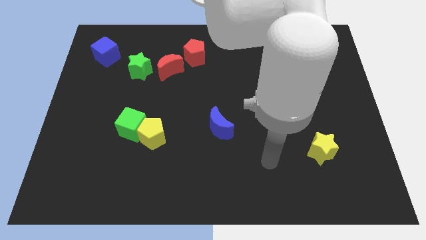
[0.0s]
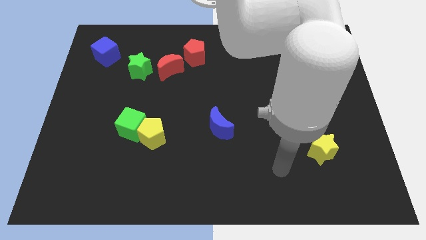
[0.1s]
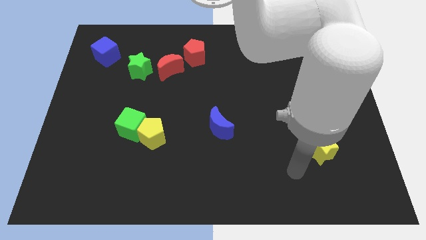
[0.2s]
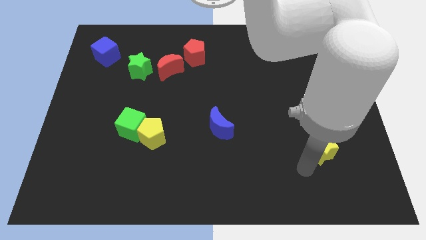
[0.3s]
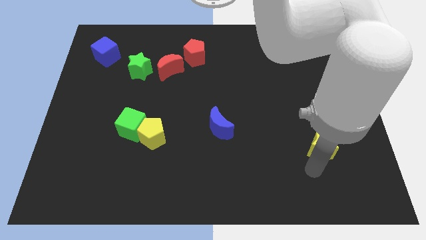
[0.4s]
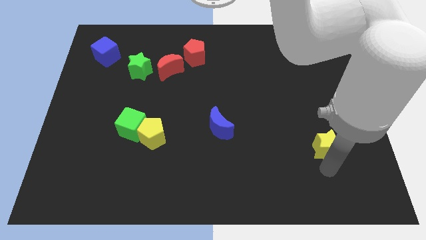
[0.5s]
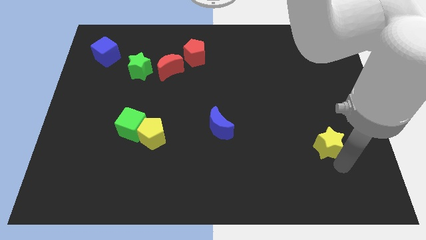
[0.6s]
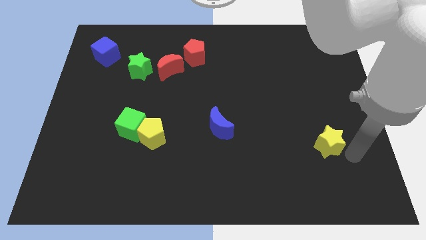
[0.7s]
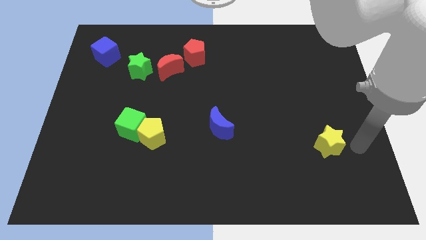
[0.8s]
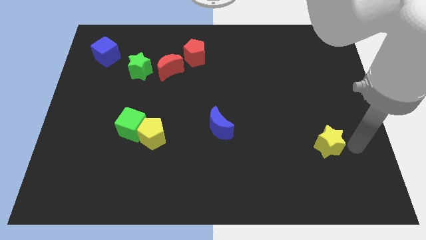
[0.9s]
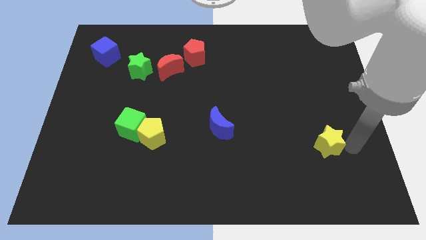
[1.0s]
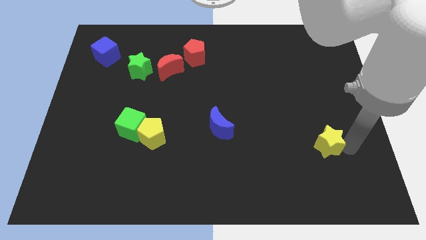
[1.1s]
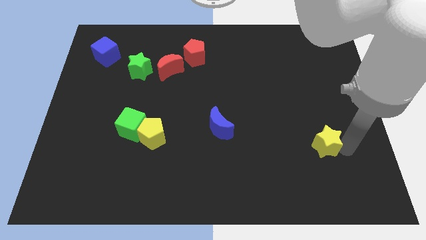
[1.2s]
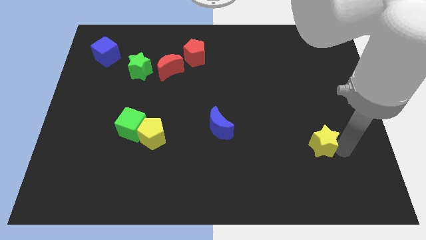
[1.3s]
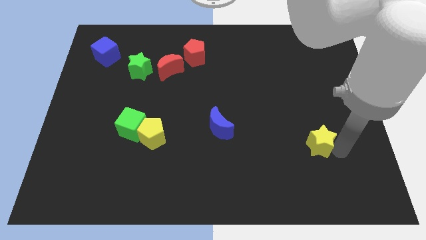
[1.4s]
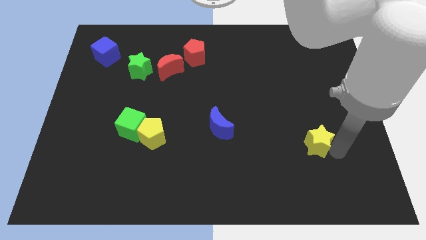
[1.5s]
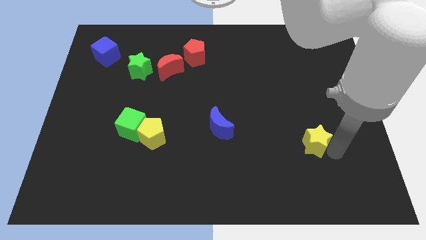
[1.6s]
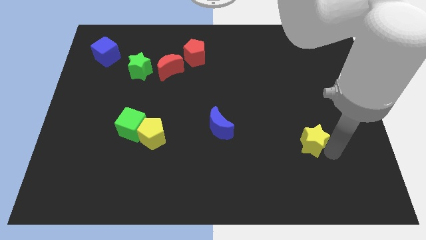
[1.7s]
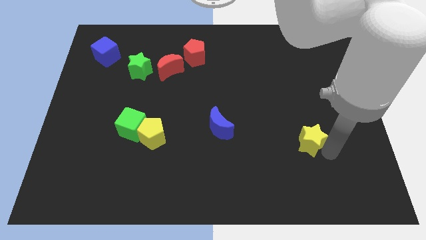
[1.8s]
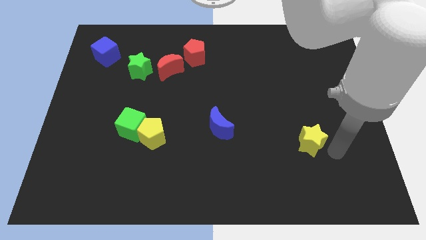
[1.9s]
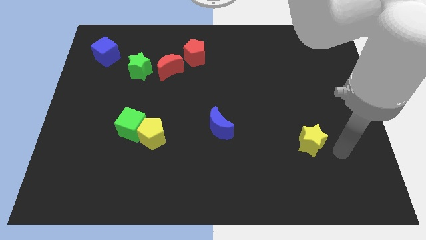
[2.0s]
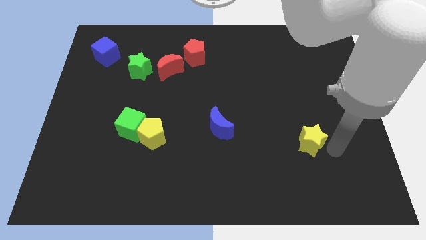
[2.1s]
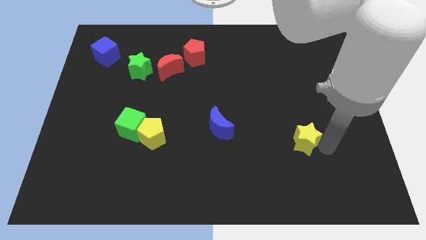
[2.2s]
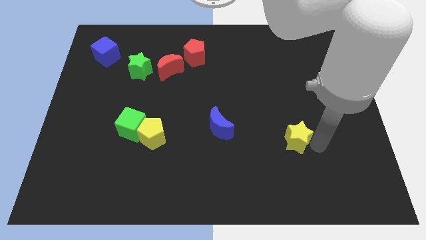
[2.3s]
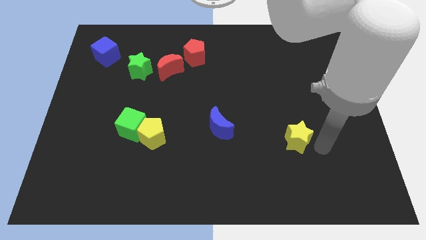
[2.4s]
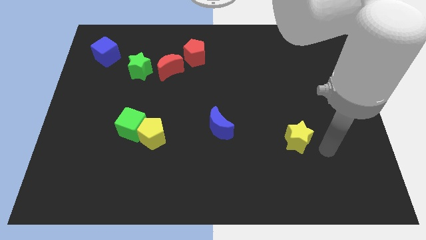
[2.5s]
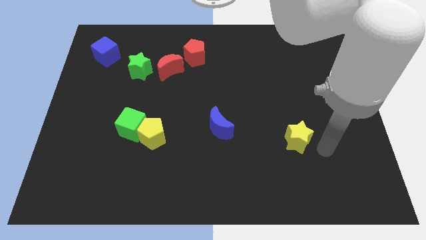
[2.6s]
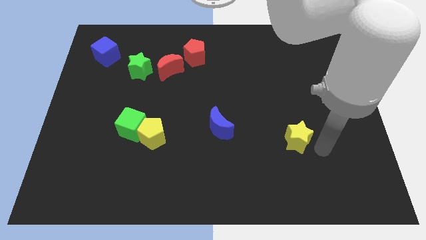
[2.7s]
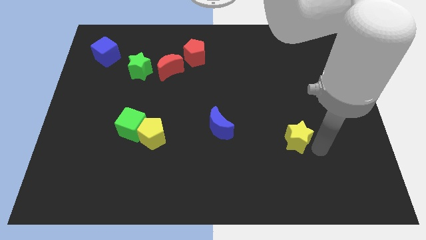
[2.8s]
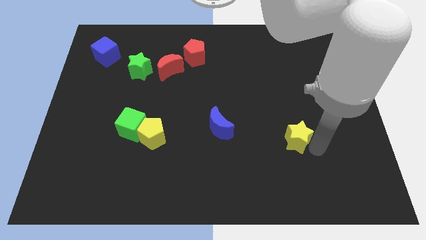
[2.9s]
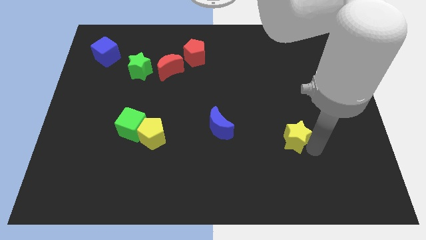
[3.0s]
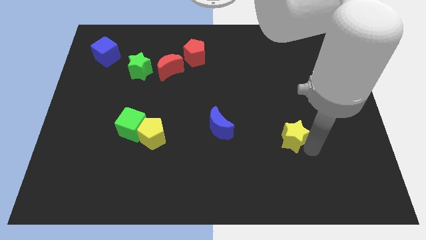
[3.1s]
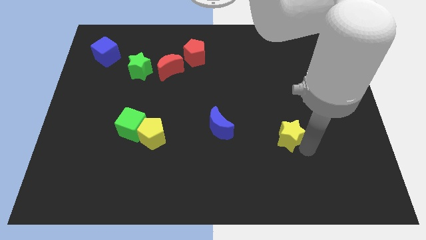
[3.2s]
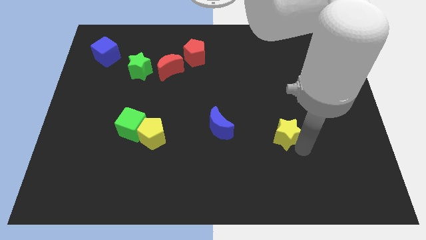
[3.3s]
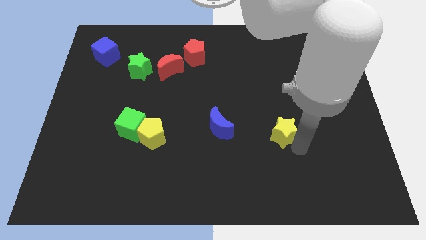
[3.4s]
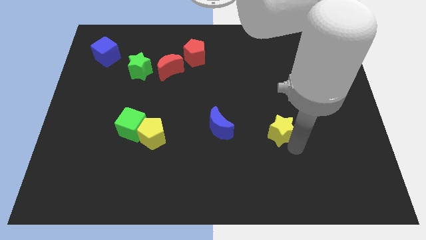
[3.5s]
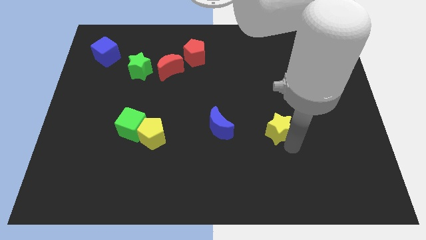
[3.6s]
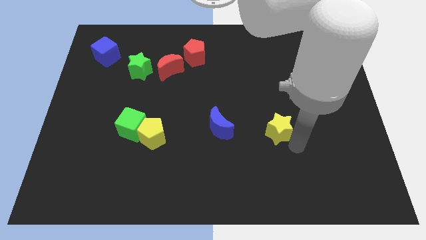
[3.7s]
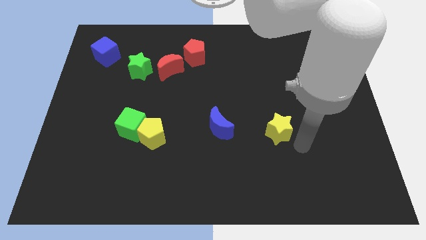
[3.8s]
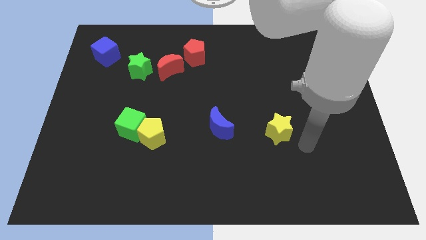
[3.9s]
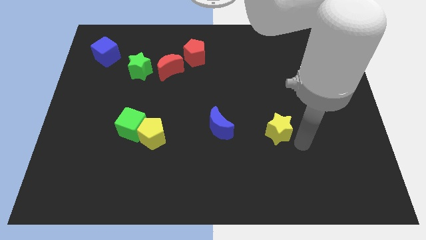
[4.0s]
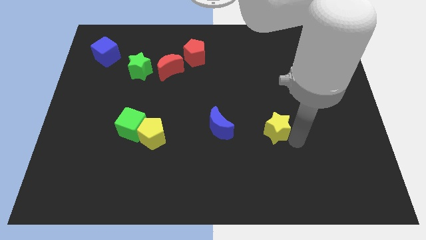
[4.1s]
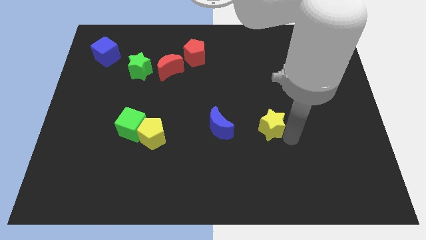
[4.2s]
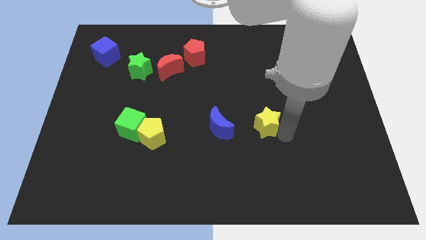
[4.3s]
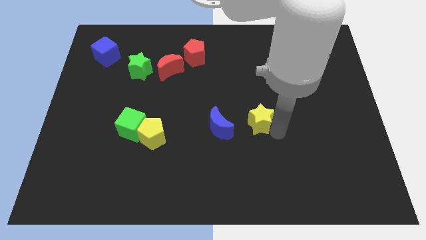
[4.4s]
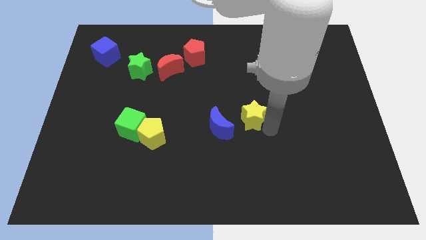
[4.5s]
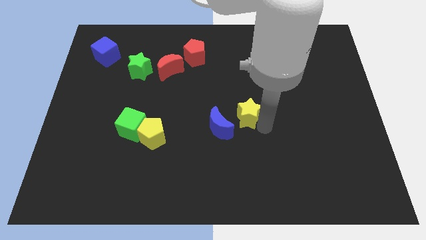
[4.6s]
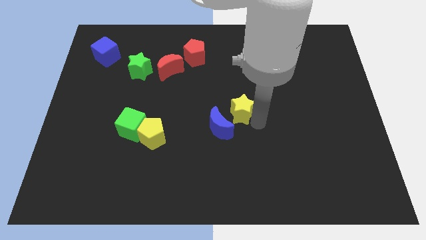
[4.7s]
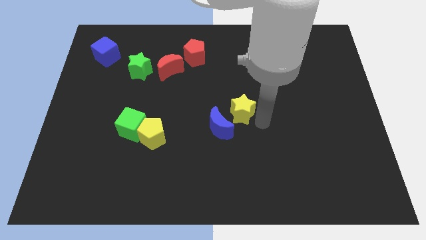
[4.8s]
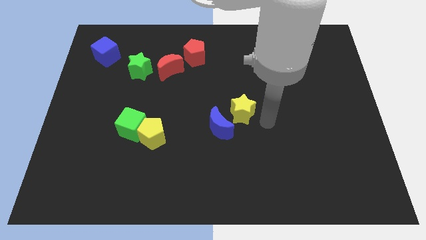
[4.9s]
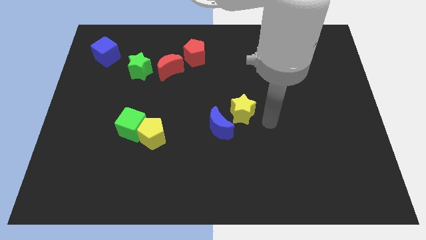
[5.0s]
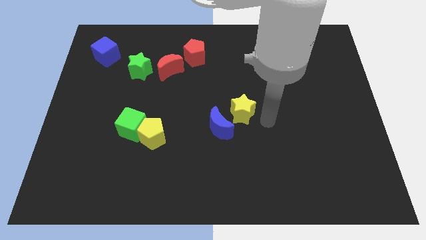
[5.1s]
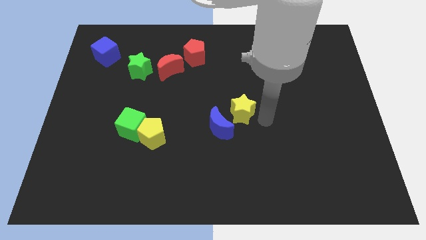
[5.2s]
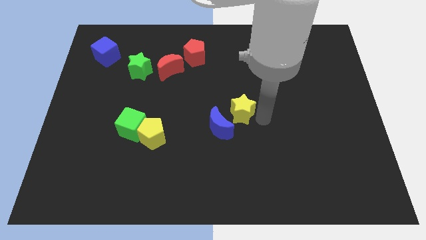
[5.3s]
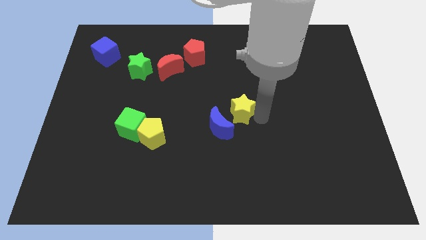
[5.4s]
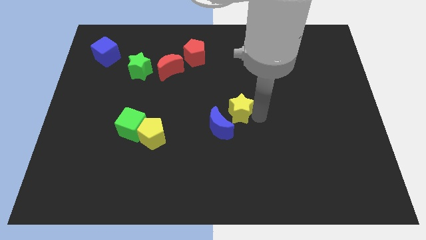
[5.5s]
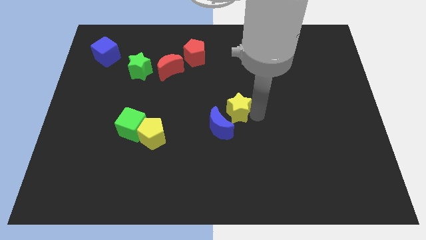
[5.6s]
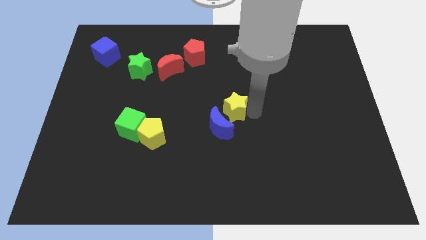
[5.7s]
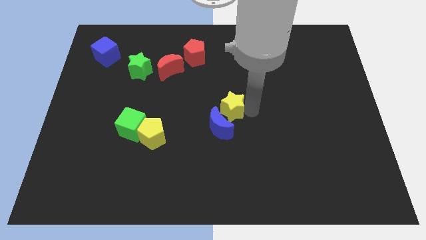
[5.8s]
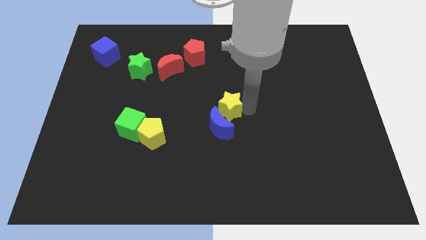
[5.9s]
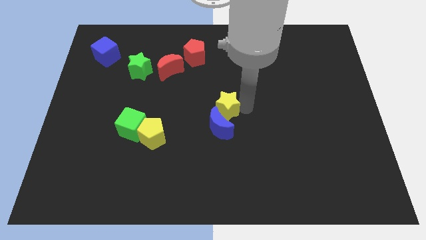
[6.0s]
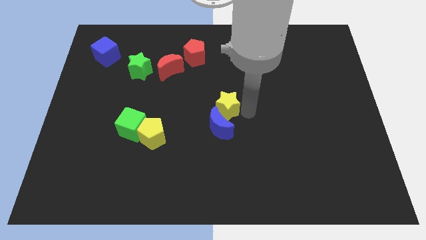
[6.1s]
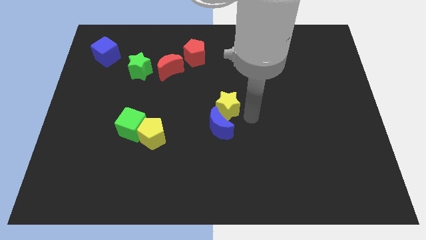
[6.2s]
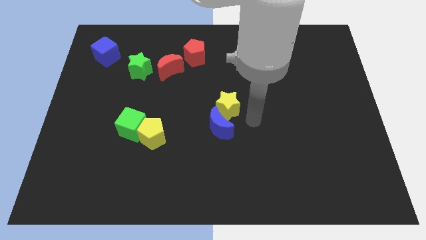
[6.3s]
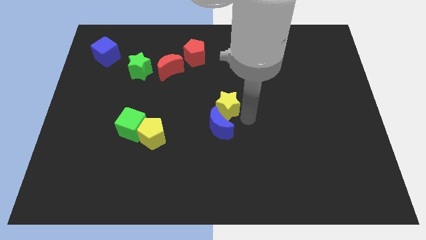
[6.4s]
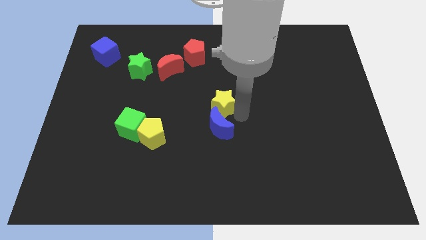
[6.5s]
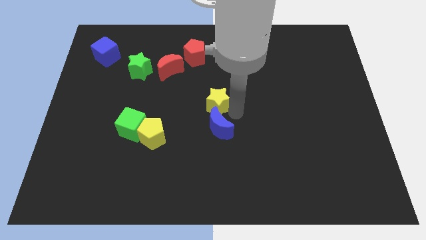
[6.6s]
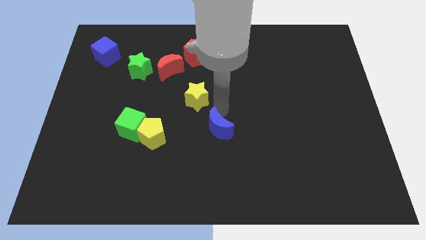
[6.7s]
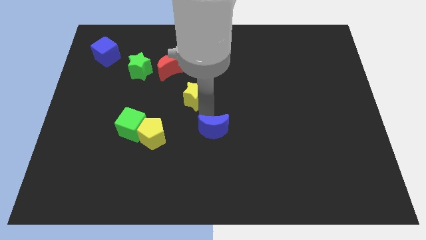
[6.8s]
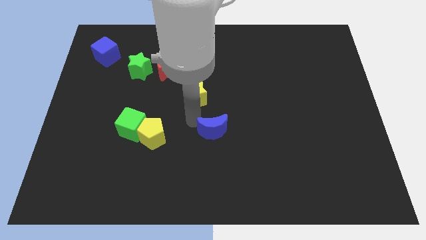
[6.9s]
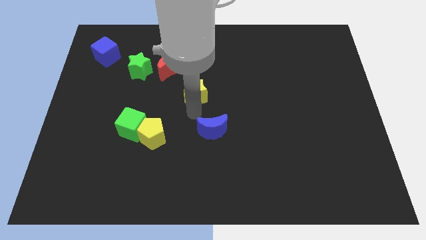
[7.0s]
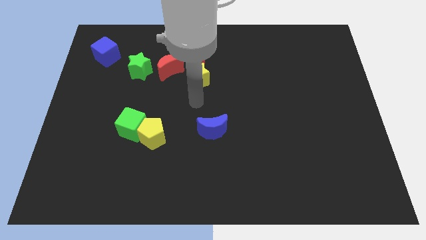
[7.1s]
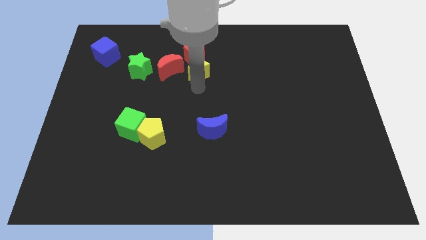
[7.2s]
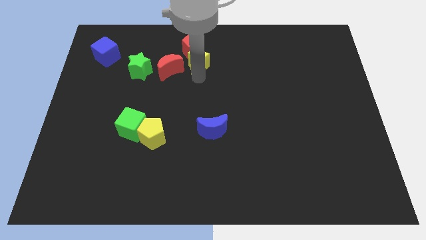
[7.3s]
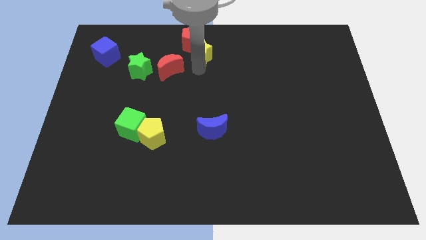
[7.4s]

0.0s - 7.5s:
move the yellow star to the top
